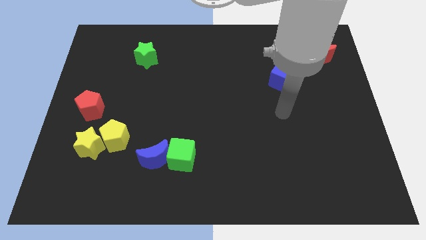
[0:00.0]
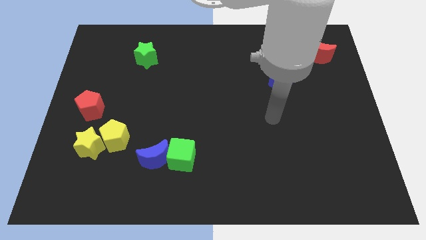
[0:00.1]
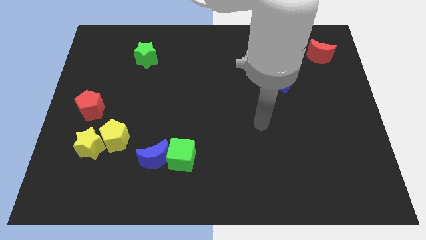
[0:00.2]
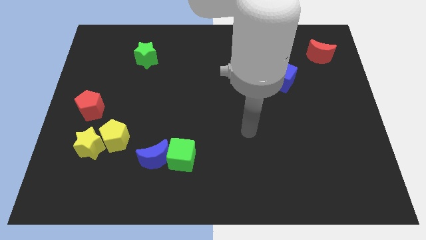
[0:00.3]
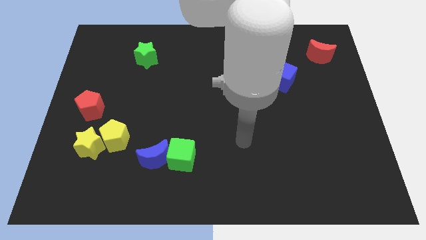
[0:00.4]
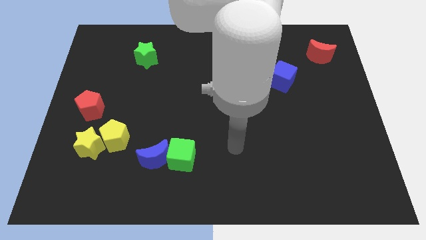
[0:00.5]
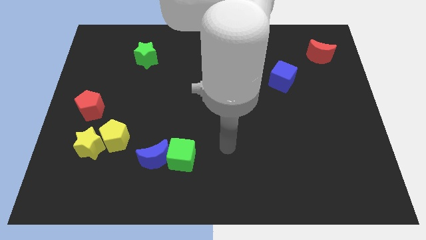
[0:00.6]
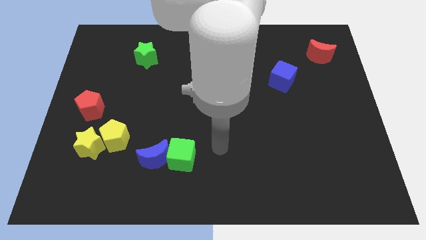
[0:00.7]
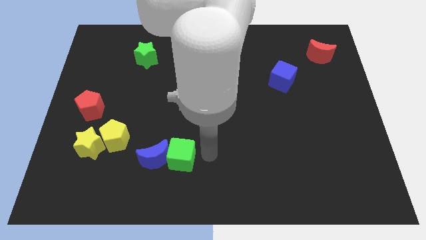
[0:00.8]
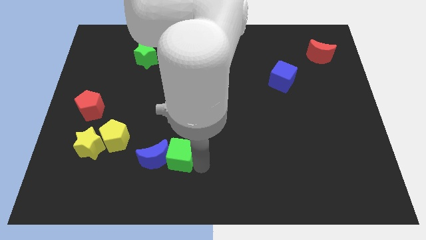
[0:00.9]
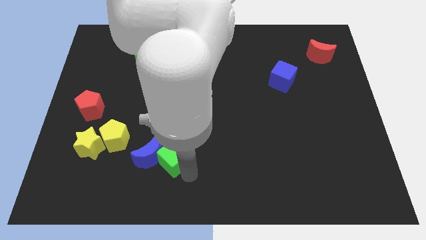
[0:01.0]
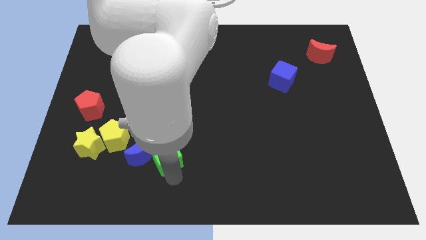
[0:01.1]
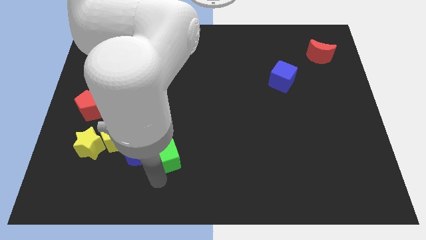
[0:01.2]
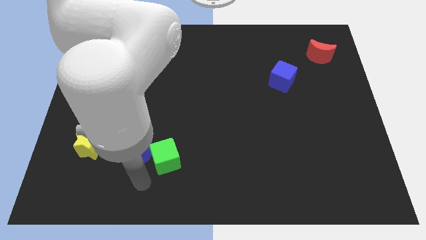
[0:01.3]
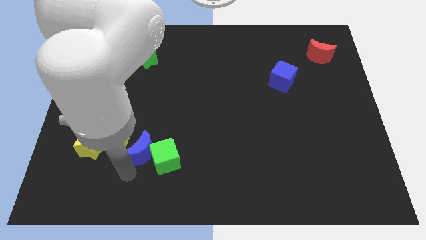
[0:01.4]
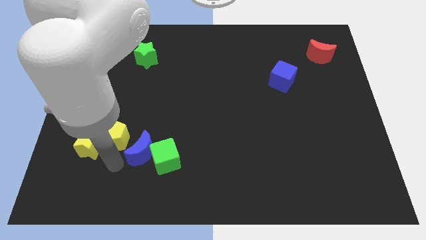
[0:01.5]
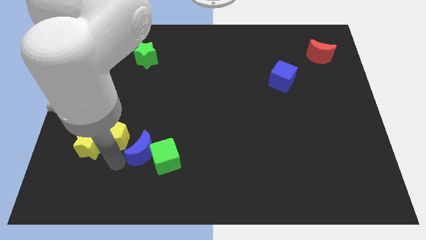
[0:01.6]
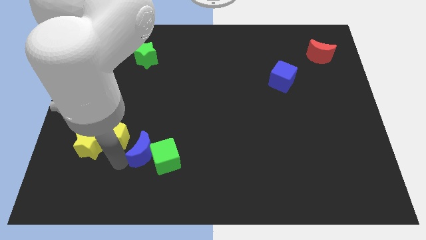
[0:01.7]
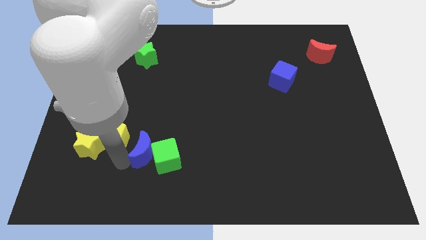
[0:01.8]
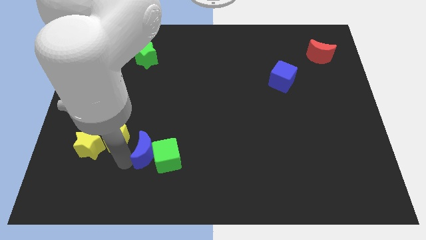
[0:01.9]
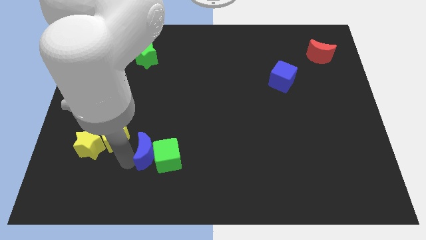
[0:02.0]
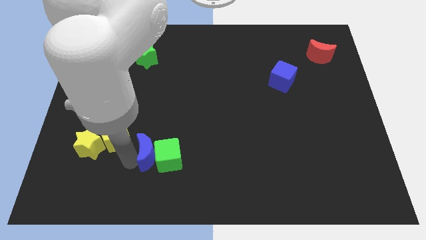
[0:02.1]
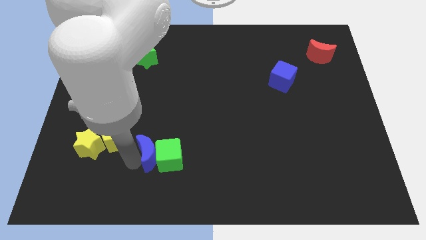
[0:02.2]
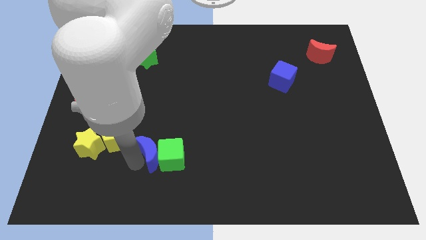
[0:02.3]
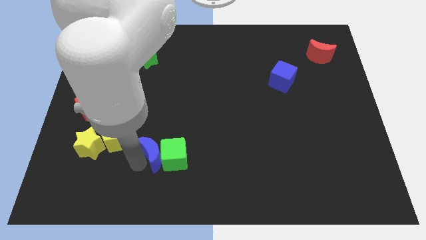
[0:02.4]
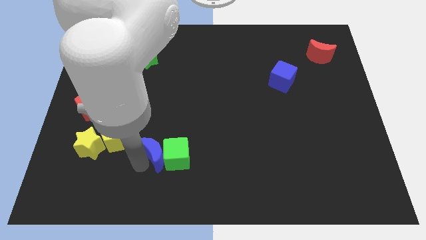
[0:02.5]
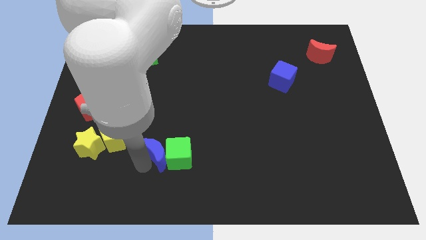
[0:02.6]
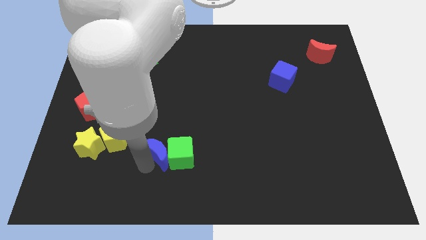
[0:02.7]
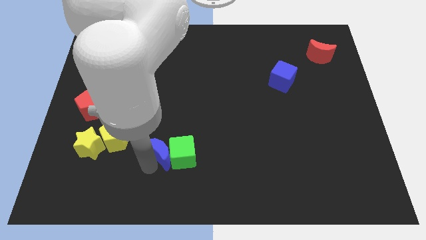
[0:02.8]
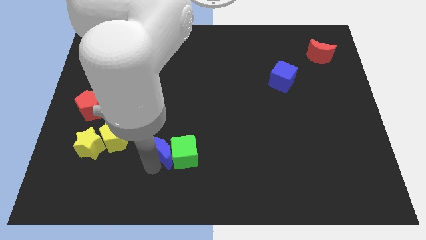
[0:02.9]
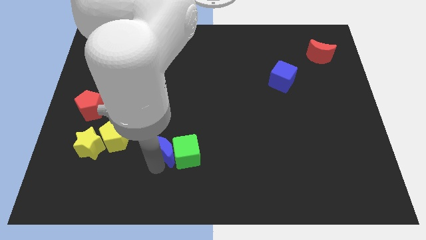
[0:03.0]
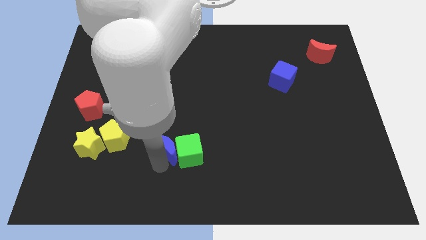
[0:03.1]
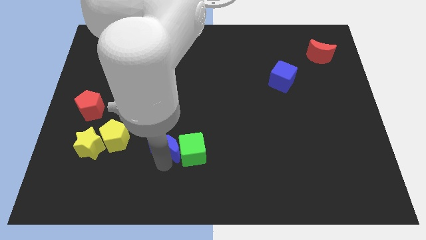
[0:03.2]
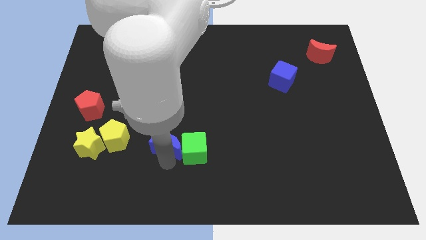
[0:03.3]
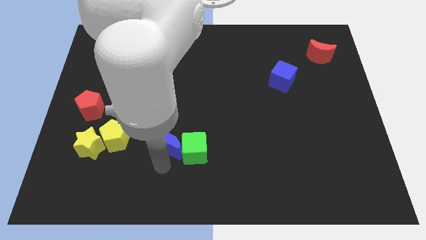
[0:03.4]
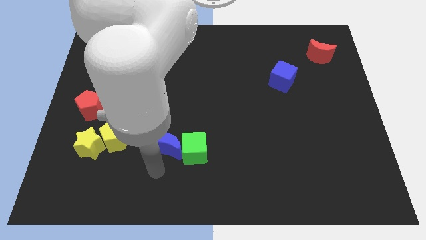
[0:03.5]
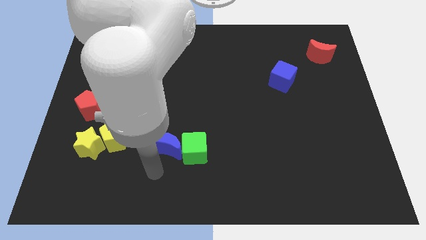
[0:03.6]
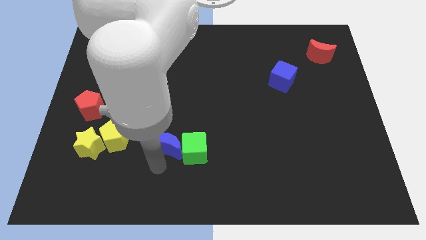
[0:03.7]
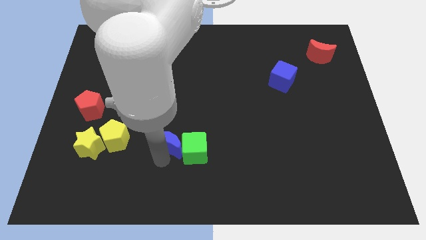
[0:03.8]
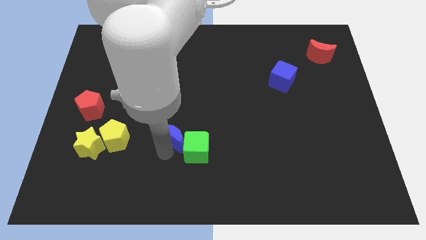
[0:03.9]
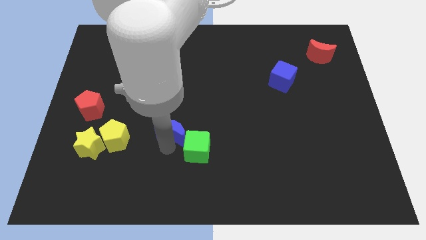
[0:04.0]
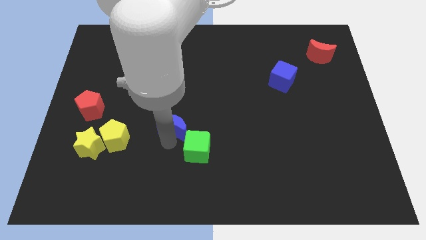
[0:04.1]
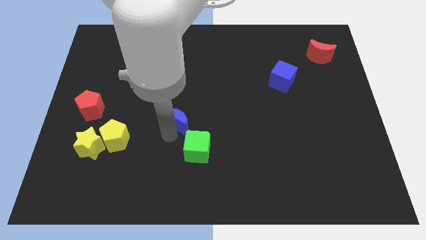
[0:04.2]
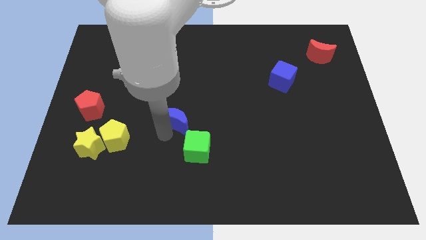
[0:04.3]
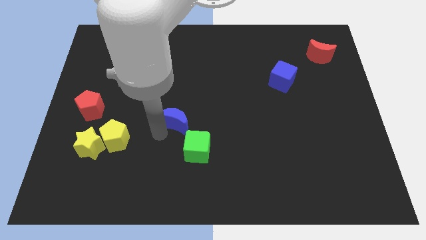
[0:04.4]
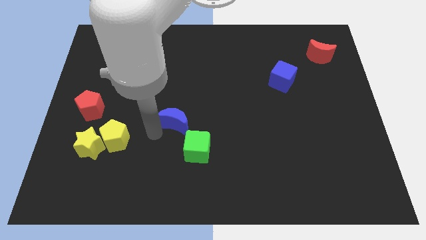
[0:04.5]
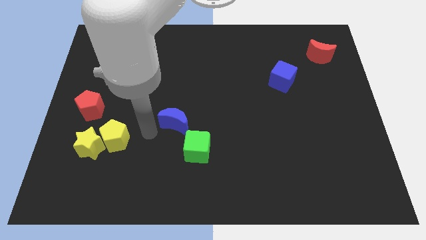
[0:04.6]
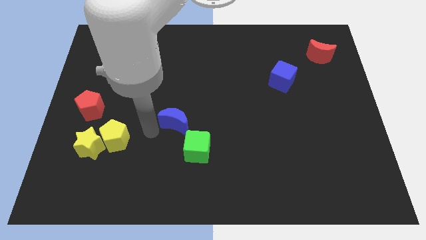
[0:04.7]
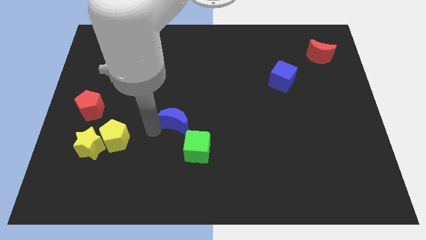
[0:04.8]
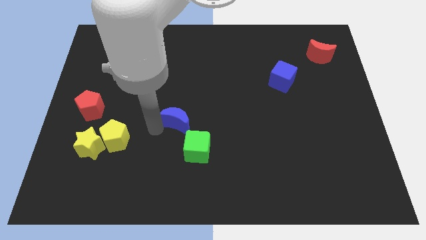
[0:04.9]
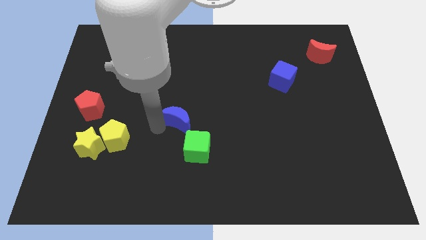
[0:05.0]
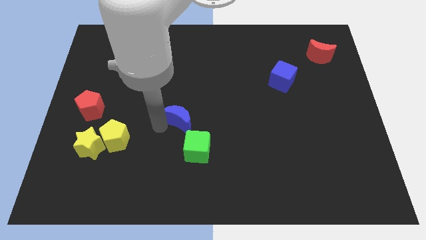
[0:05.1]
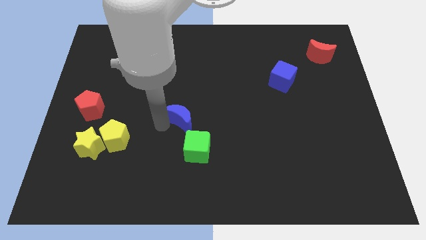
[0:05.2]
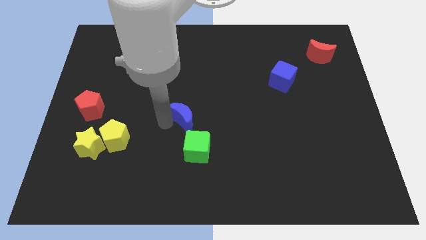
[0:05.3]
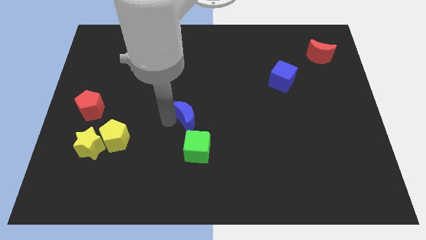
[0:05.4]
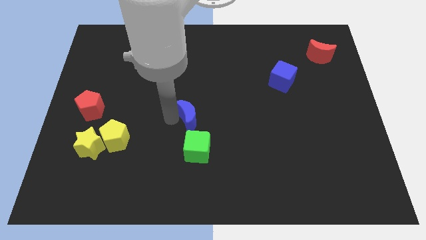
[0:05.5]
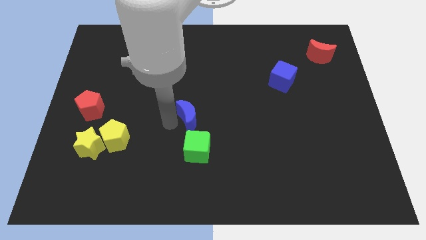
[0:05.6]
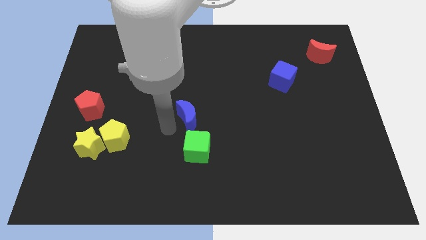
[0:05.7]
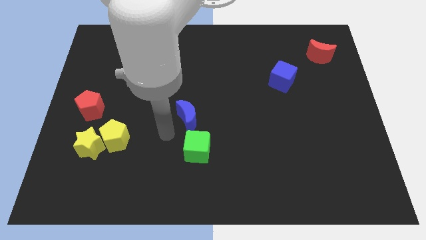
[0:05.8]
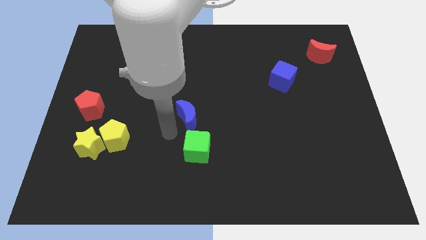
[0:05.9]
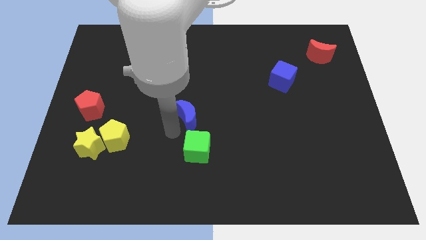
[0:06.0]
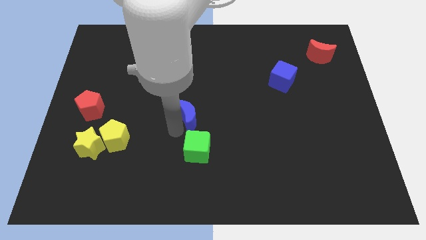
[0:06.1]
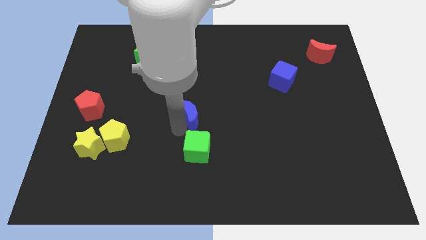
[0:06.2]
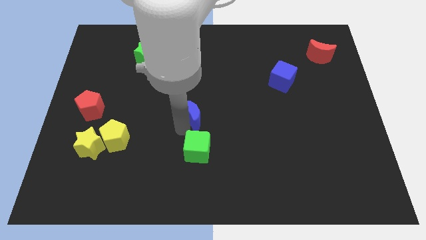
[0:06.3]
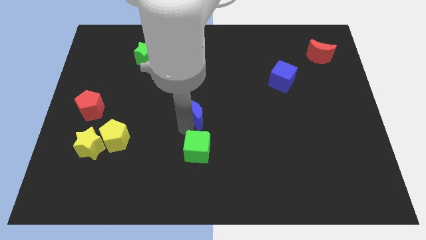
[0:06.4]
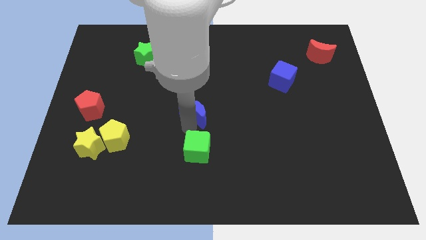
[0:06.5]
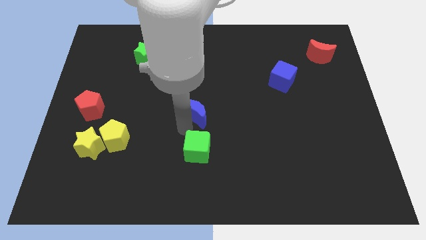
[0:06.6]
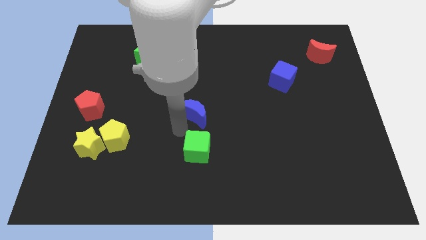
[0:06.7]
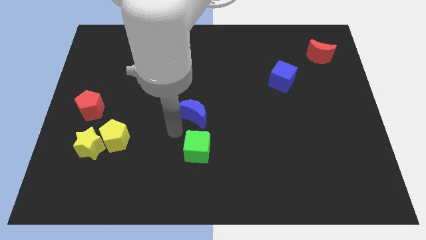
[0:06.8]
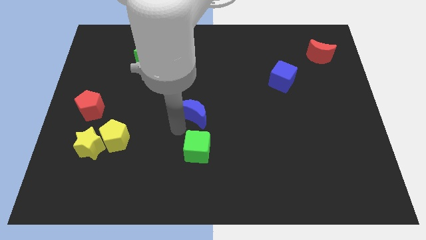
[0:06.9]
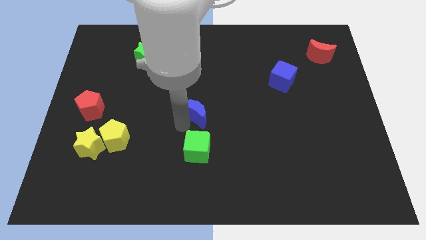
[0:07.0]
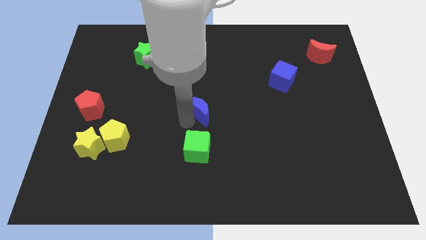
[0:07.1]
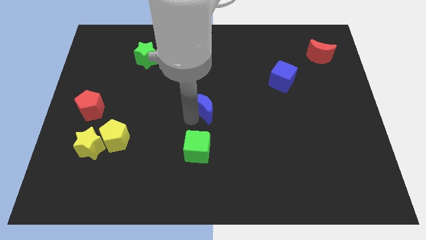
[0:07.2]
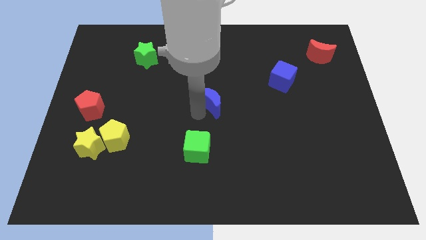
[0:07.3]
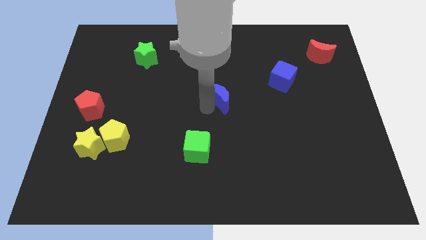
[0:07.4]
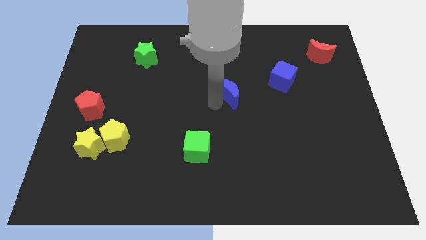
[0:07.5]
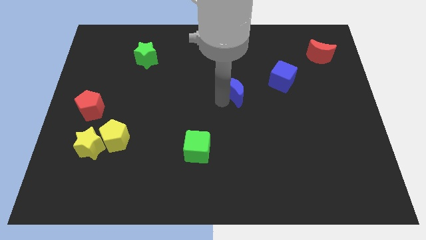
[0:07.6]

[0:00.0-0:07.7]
slide the blue moon to the left of the blue cube
